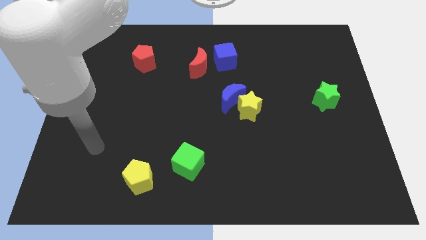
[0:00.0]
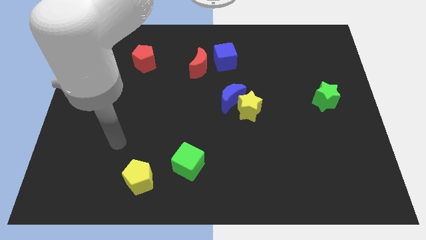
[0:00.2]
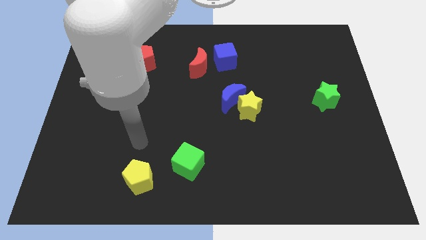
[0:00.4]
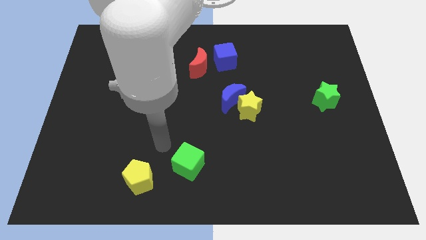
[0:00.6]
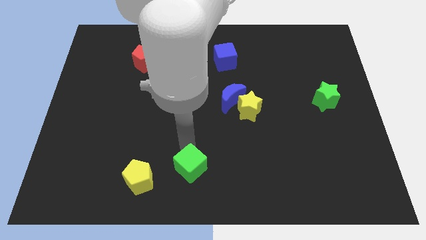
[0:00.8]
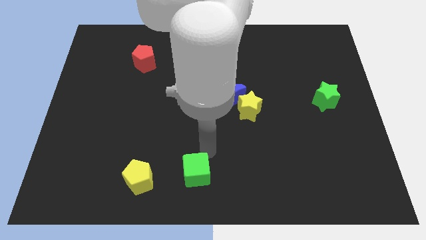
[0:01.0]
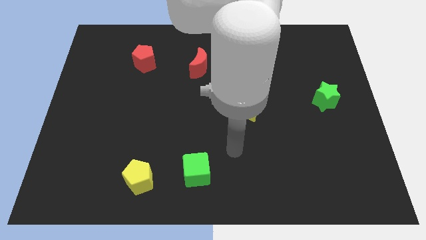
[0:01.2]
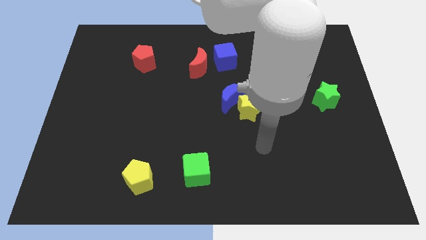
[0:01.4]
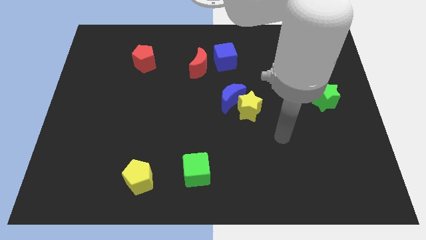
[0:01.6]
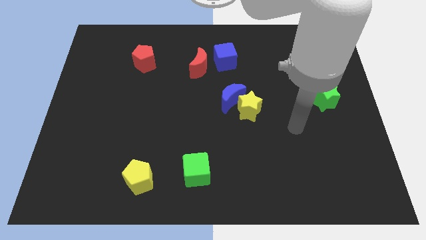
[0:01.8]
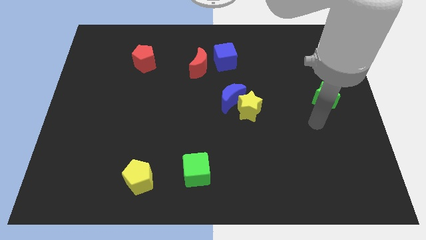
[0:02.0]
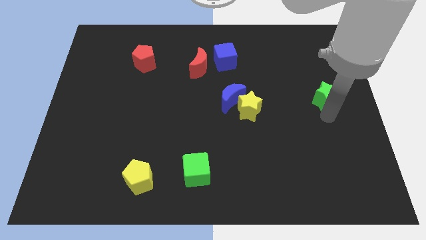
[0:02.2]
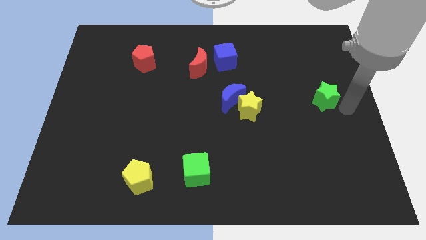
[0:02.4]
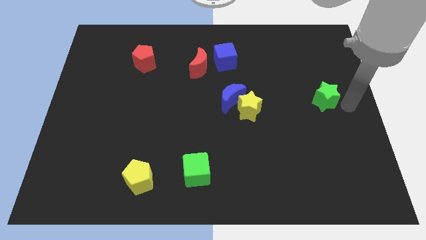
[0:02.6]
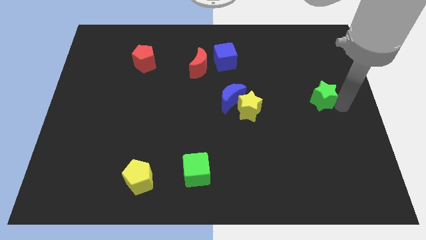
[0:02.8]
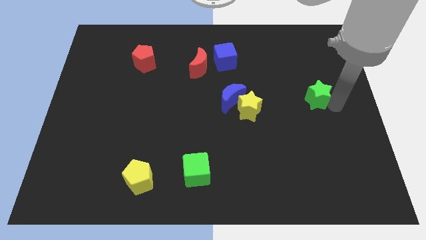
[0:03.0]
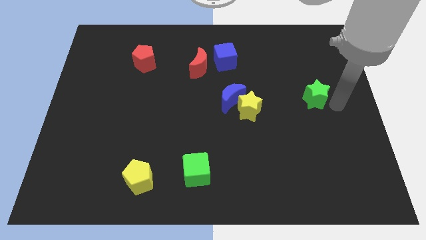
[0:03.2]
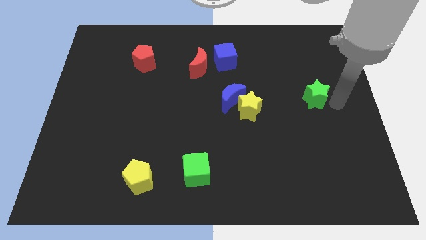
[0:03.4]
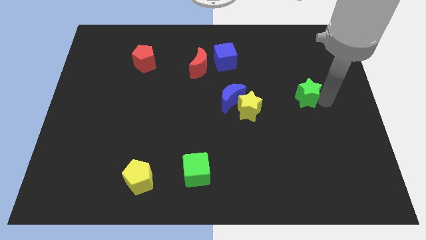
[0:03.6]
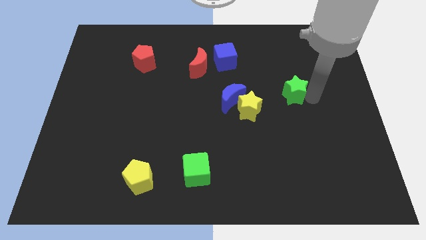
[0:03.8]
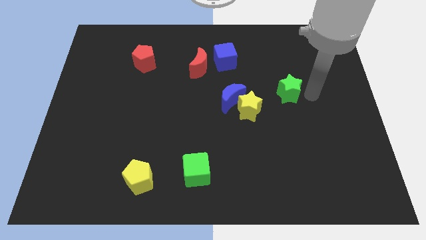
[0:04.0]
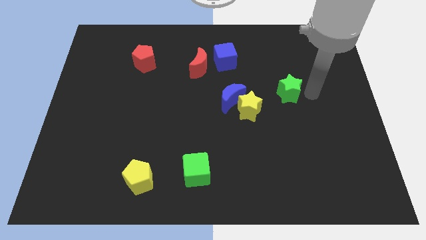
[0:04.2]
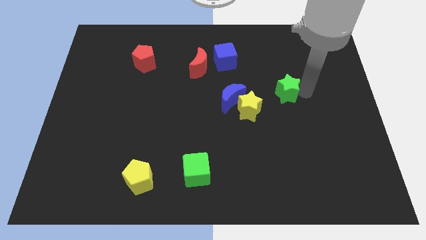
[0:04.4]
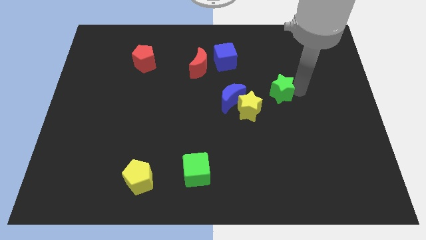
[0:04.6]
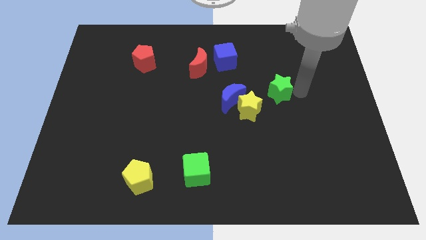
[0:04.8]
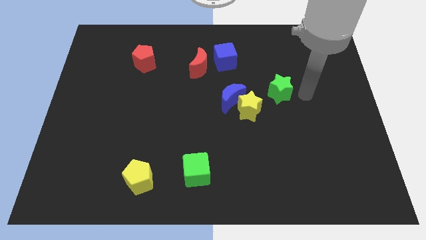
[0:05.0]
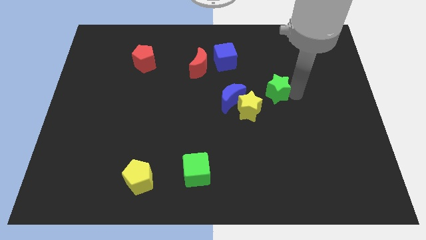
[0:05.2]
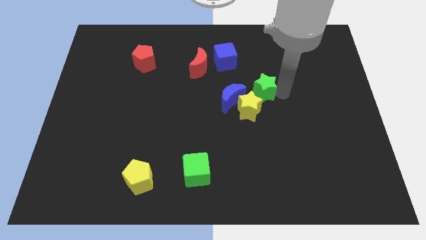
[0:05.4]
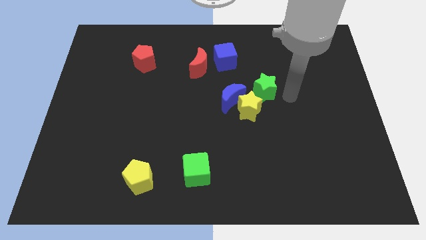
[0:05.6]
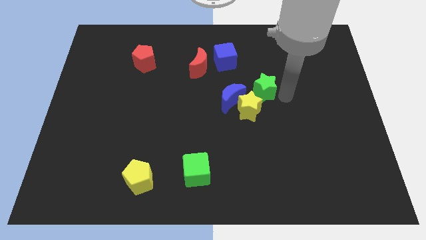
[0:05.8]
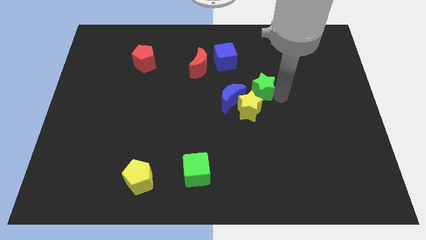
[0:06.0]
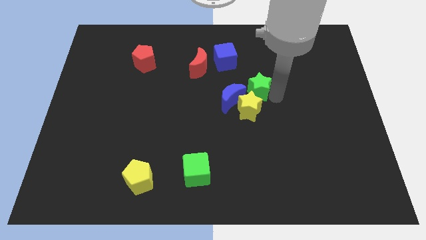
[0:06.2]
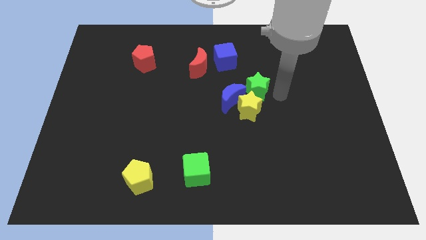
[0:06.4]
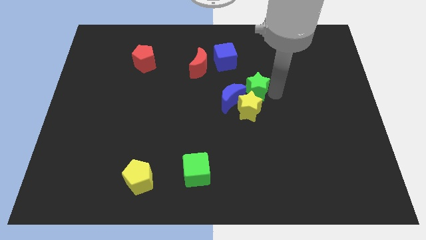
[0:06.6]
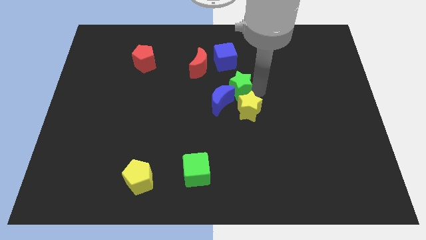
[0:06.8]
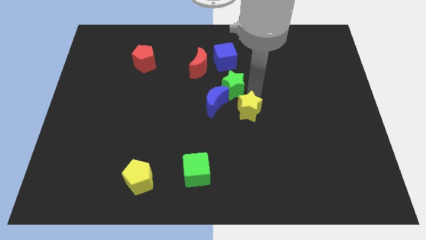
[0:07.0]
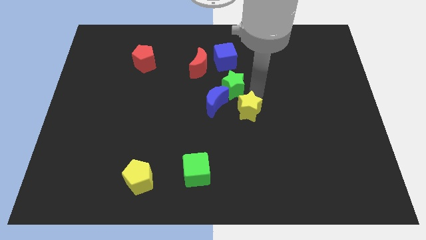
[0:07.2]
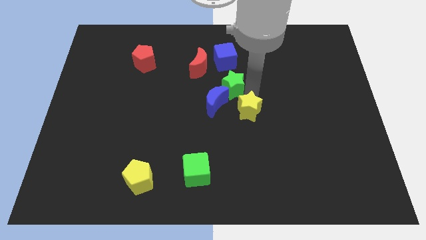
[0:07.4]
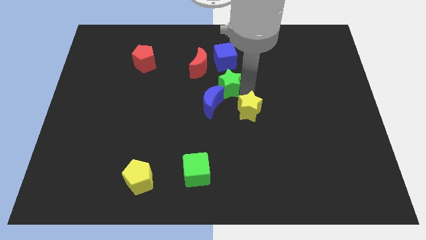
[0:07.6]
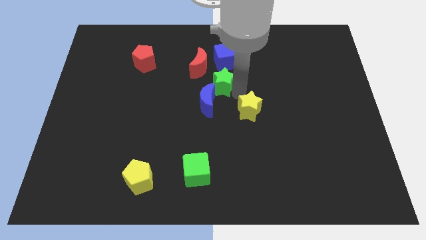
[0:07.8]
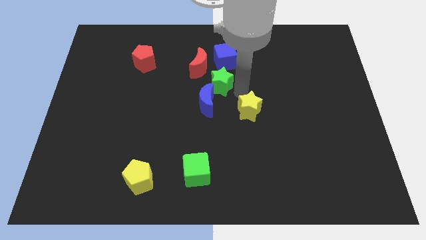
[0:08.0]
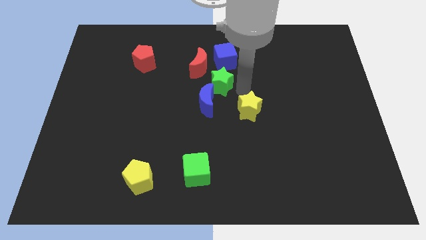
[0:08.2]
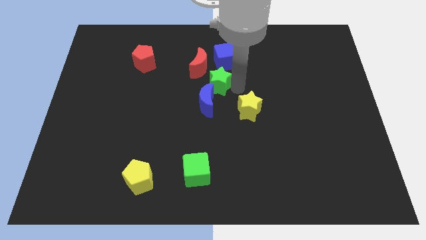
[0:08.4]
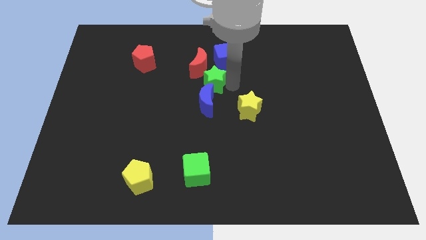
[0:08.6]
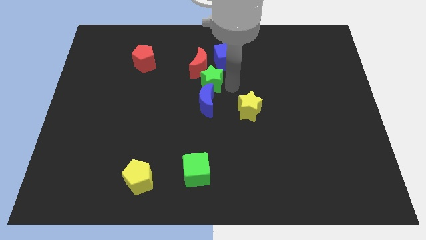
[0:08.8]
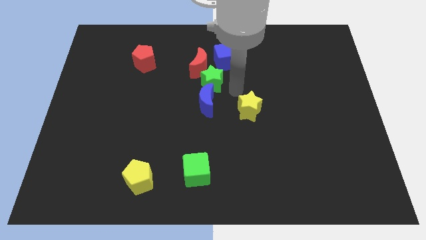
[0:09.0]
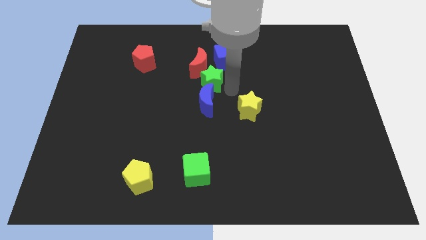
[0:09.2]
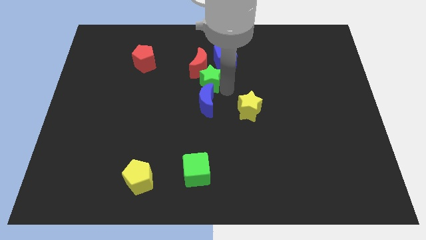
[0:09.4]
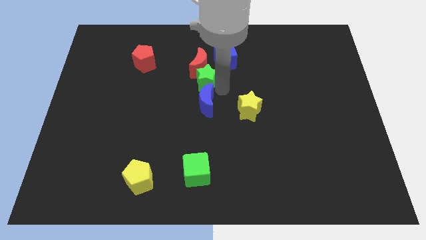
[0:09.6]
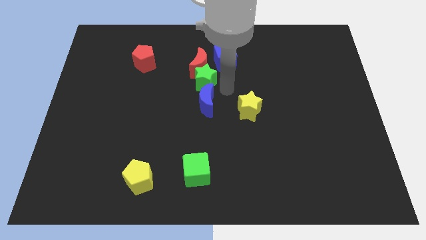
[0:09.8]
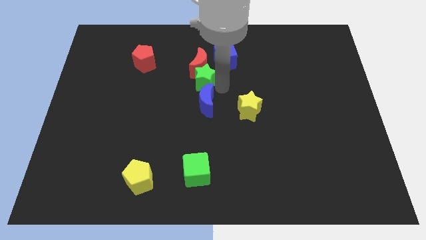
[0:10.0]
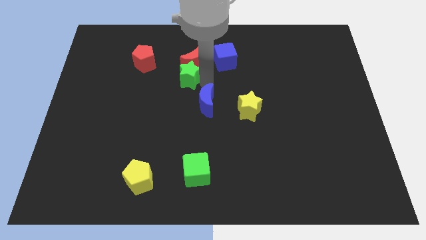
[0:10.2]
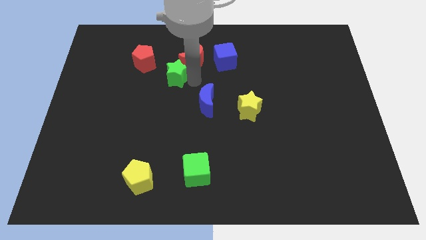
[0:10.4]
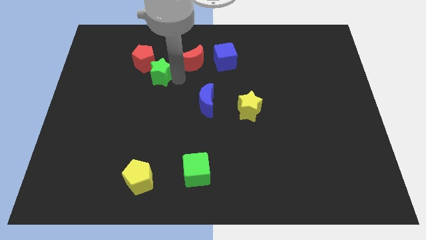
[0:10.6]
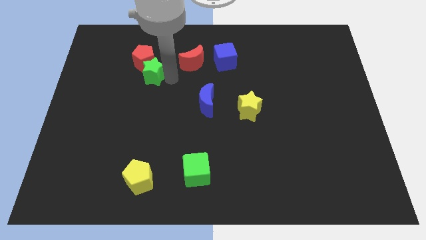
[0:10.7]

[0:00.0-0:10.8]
push the green star close to the red pentagon

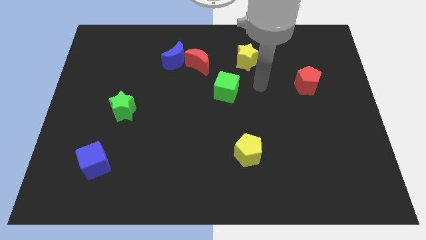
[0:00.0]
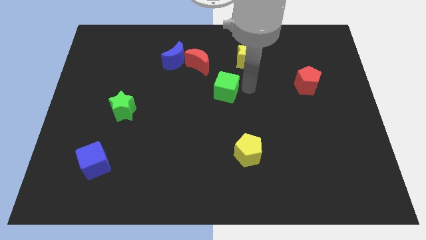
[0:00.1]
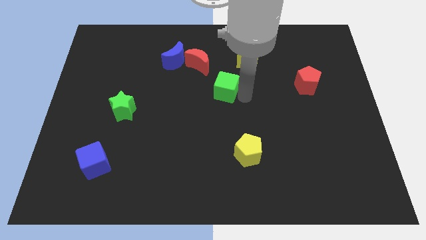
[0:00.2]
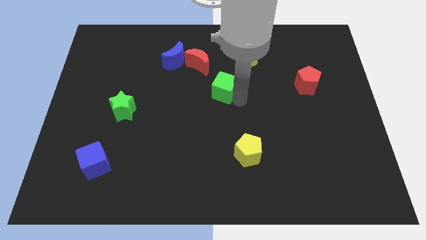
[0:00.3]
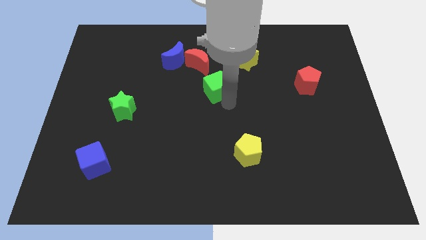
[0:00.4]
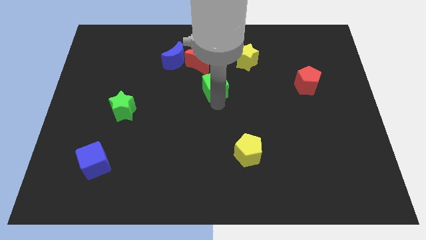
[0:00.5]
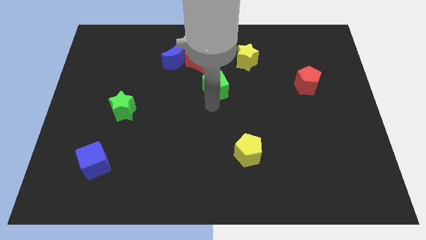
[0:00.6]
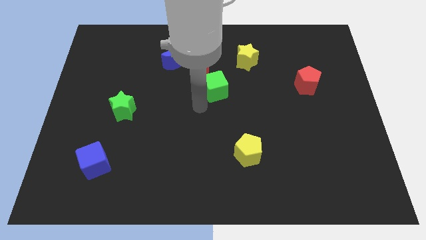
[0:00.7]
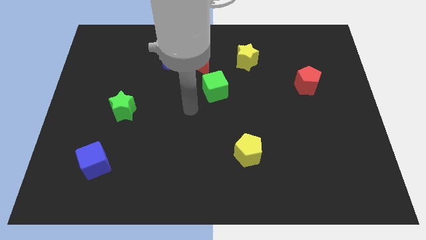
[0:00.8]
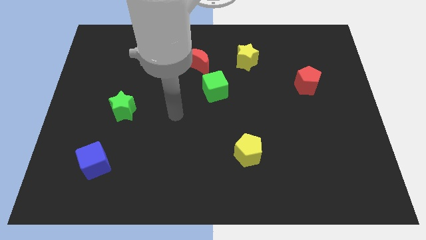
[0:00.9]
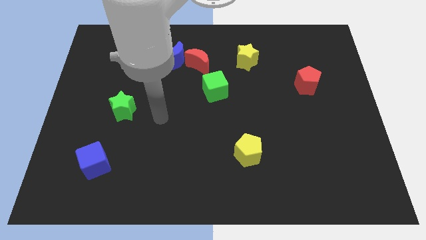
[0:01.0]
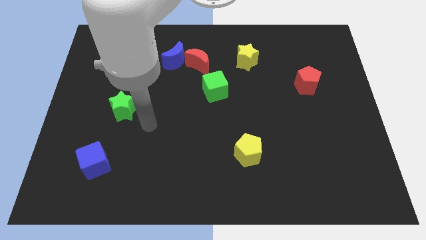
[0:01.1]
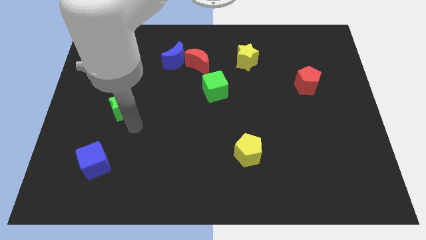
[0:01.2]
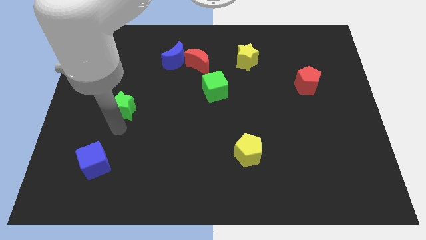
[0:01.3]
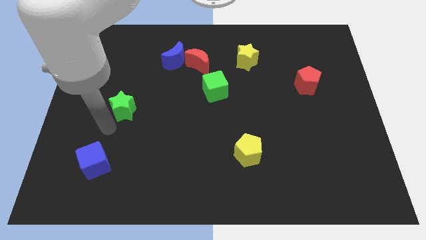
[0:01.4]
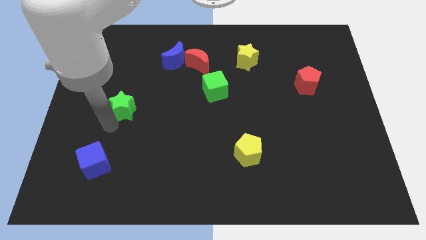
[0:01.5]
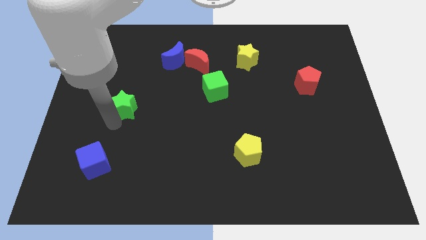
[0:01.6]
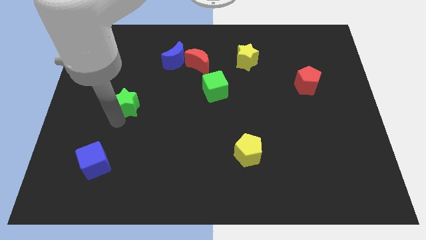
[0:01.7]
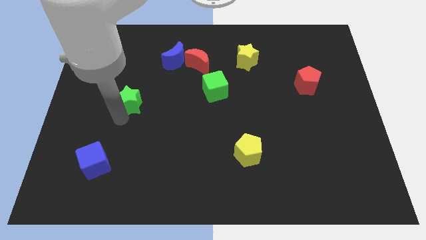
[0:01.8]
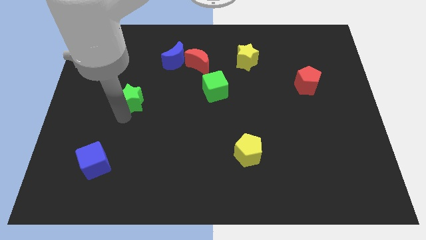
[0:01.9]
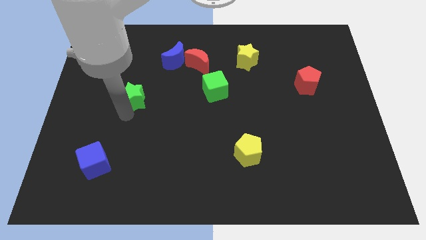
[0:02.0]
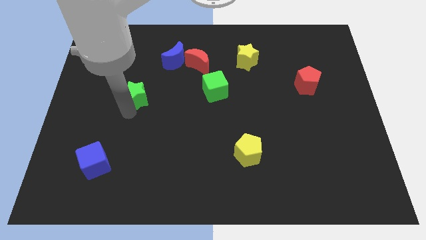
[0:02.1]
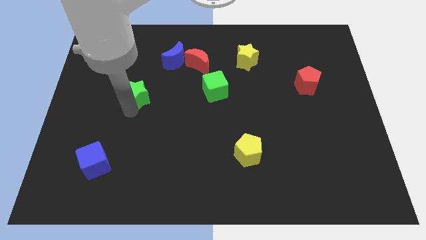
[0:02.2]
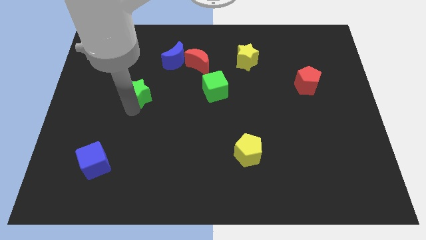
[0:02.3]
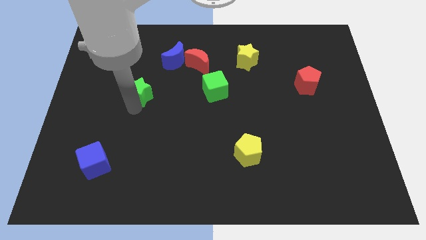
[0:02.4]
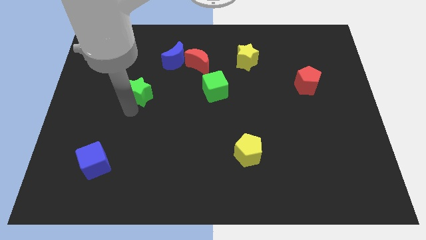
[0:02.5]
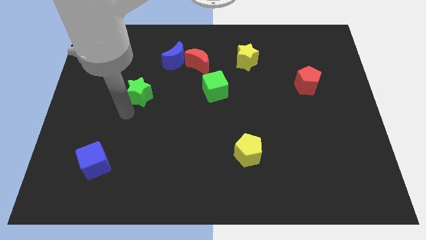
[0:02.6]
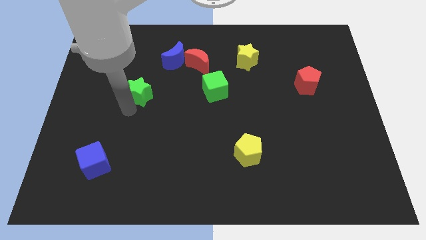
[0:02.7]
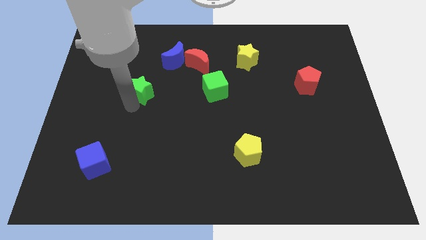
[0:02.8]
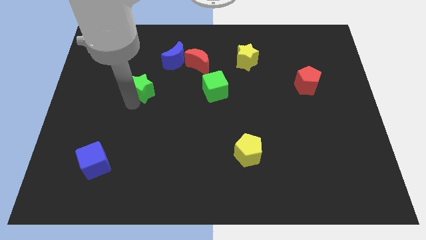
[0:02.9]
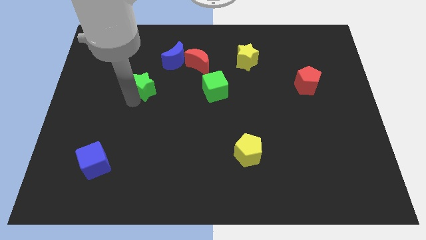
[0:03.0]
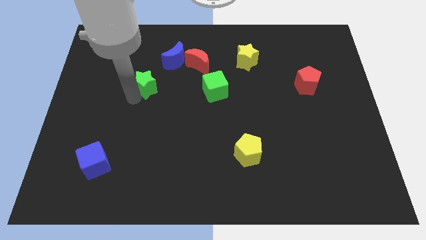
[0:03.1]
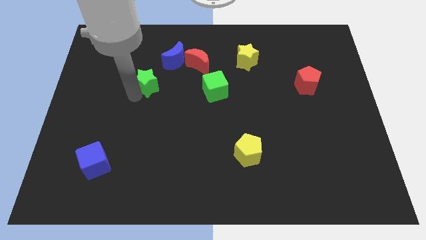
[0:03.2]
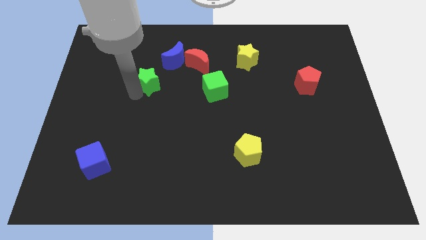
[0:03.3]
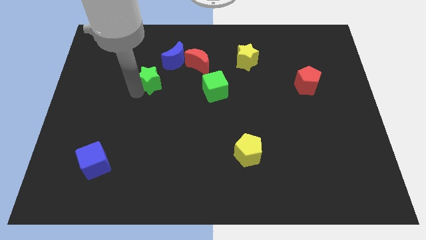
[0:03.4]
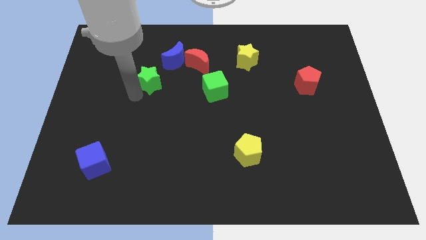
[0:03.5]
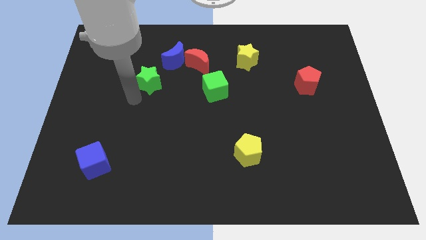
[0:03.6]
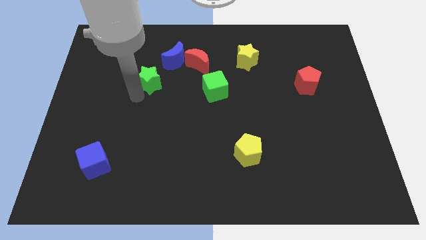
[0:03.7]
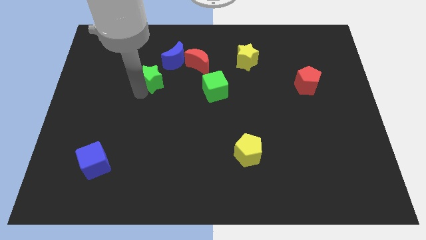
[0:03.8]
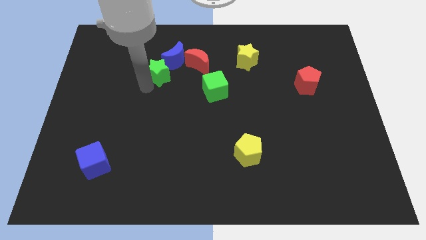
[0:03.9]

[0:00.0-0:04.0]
move the green star to the blue moon
